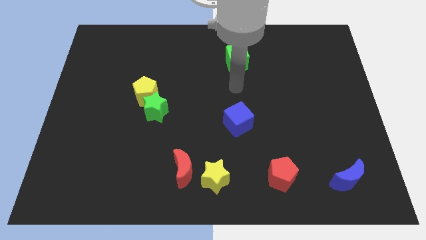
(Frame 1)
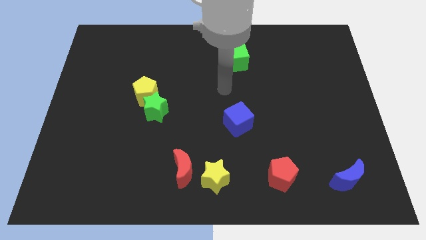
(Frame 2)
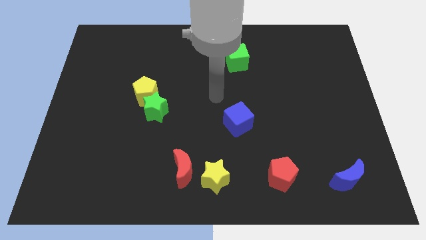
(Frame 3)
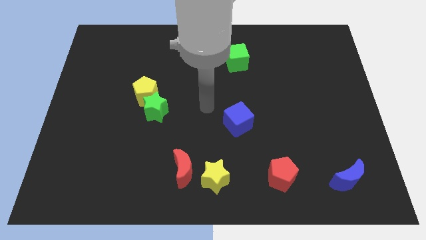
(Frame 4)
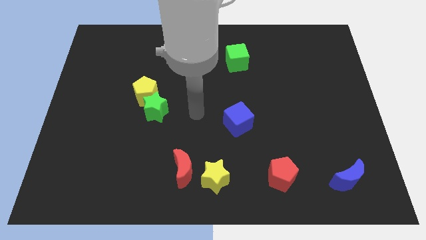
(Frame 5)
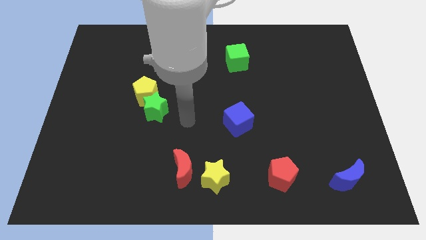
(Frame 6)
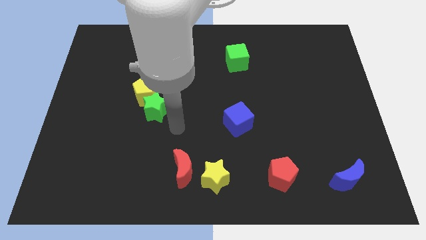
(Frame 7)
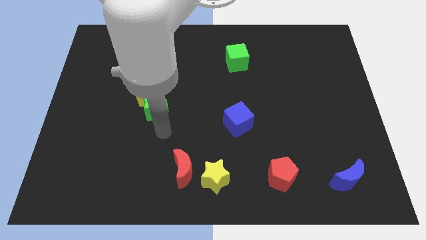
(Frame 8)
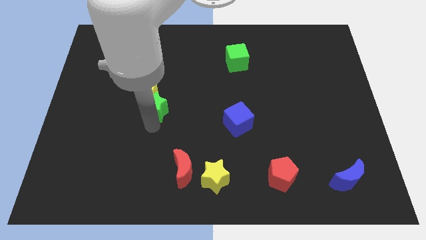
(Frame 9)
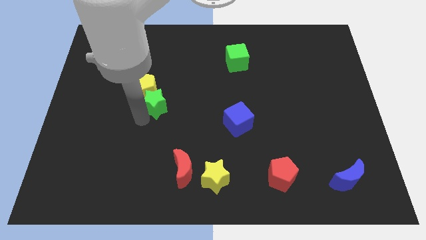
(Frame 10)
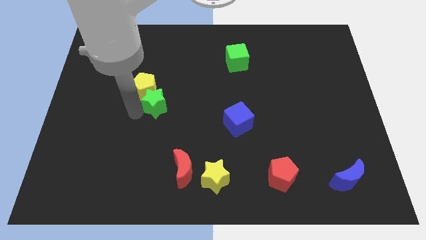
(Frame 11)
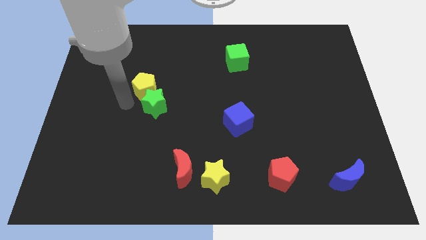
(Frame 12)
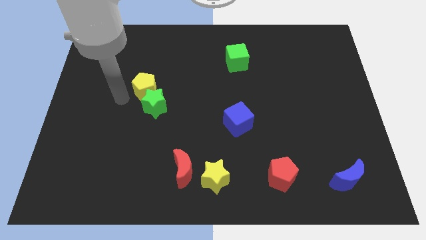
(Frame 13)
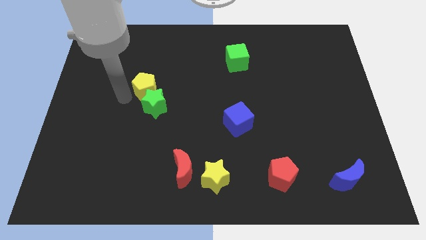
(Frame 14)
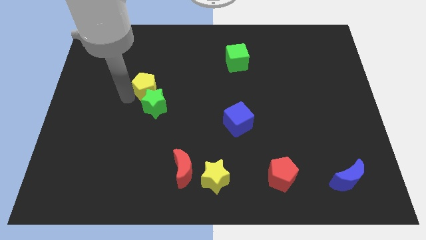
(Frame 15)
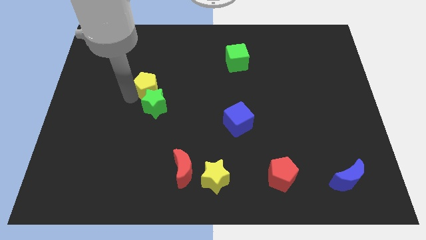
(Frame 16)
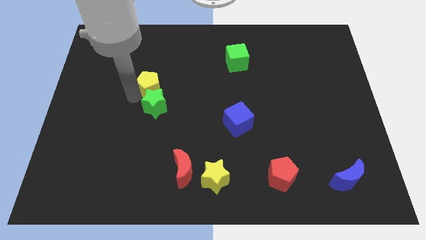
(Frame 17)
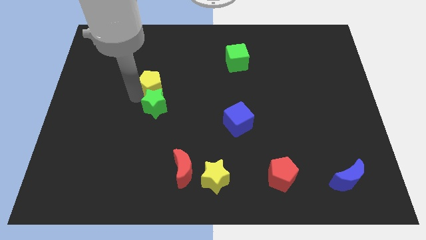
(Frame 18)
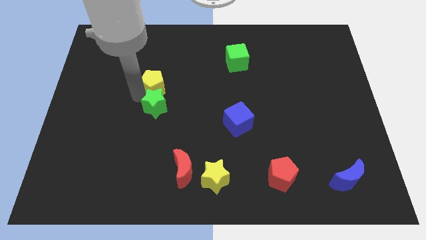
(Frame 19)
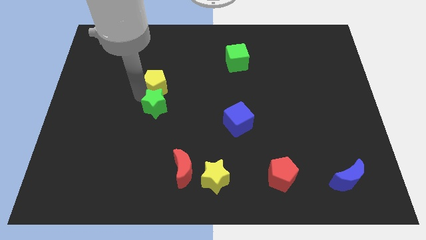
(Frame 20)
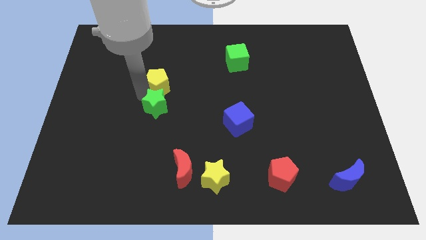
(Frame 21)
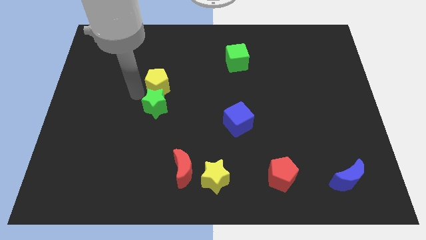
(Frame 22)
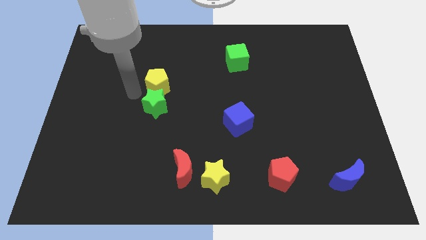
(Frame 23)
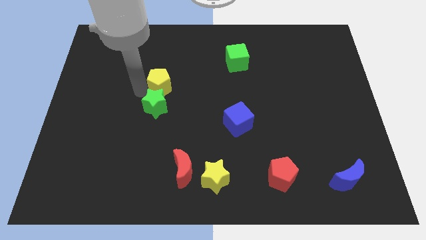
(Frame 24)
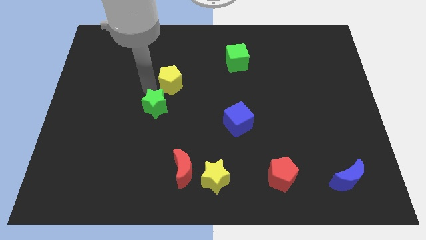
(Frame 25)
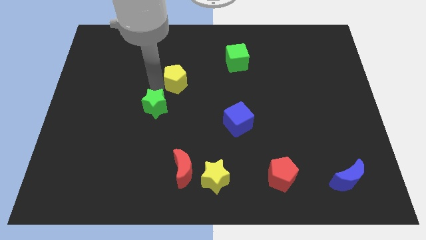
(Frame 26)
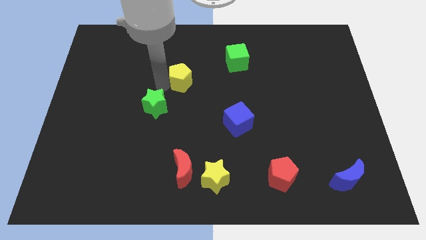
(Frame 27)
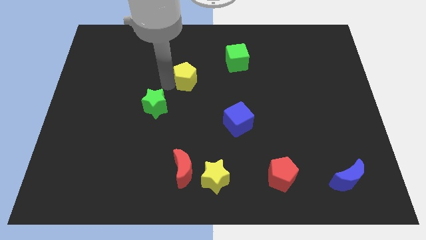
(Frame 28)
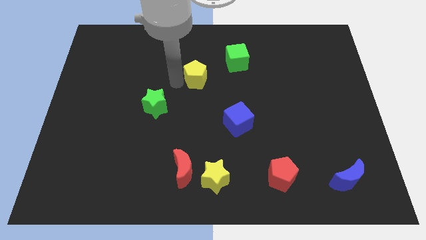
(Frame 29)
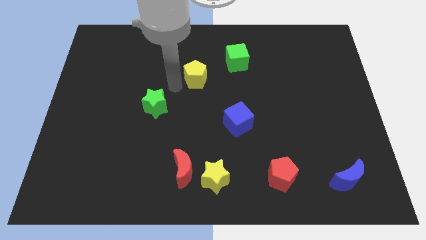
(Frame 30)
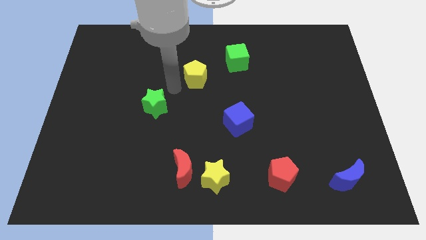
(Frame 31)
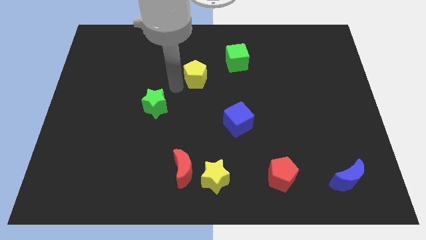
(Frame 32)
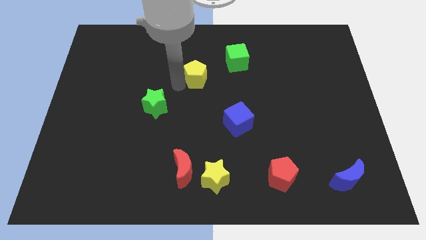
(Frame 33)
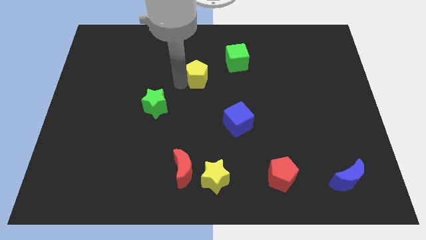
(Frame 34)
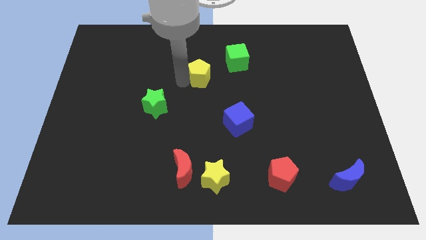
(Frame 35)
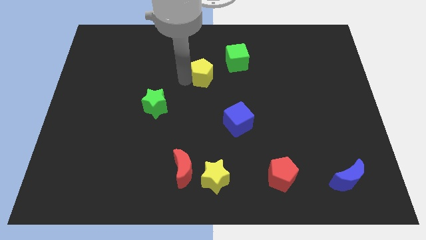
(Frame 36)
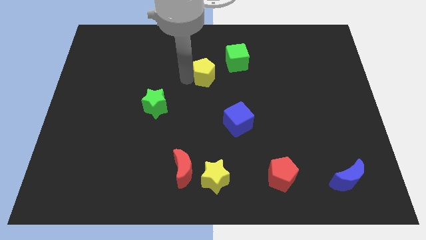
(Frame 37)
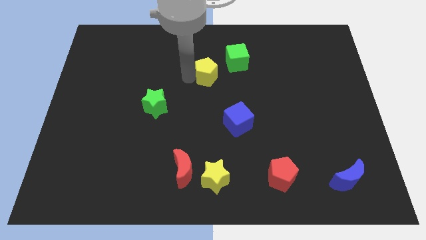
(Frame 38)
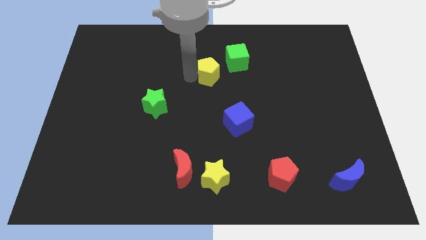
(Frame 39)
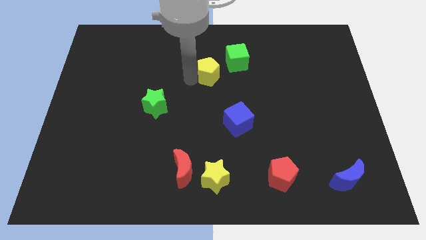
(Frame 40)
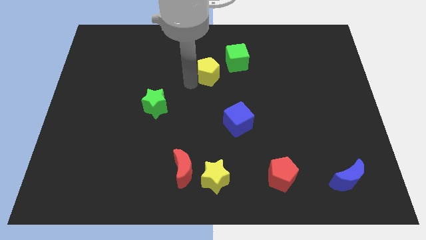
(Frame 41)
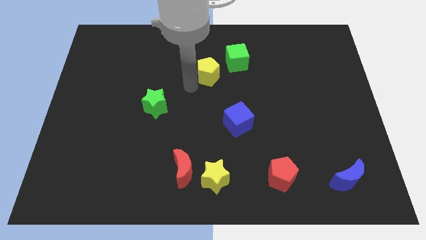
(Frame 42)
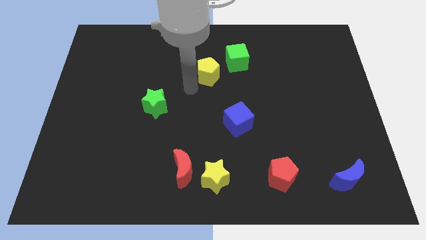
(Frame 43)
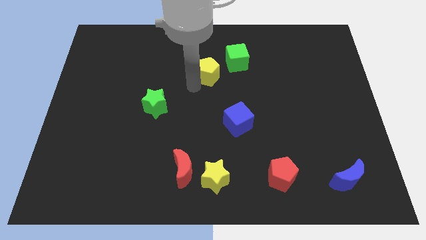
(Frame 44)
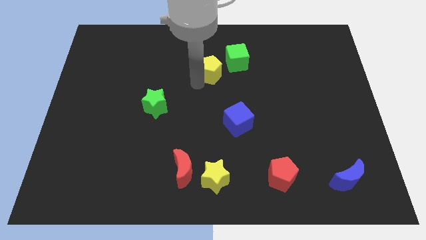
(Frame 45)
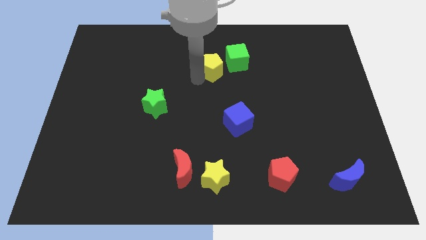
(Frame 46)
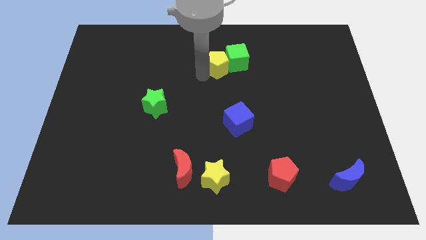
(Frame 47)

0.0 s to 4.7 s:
move the yellow pentagon next to the green cube

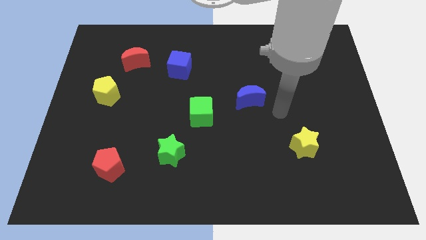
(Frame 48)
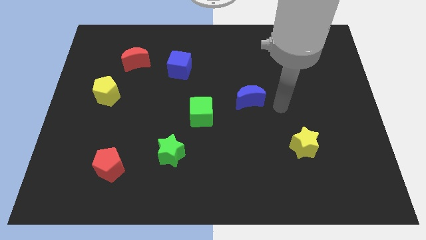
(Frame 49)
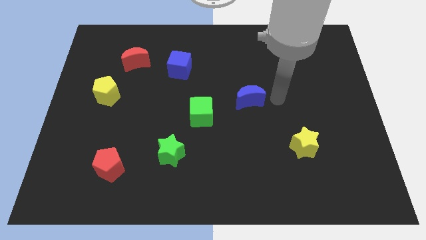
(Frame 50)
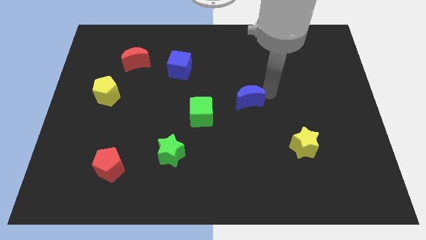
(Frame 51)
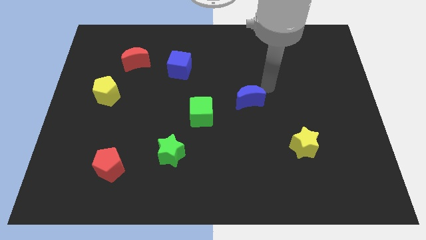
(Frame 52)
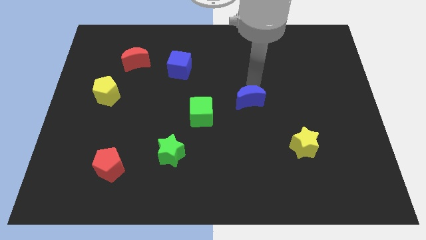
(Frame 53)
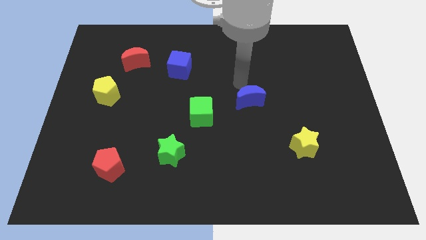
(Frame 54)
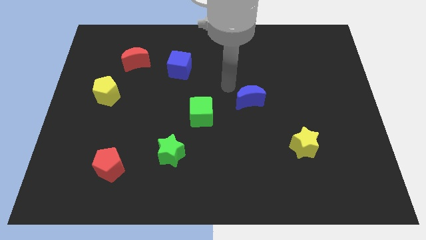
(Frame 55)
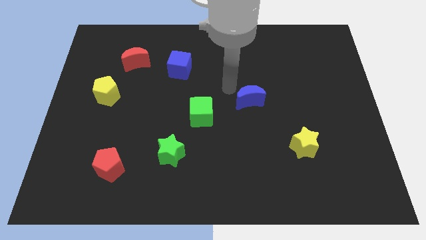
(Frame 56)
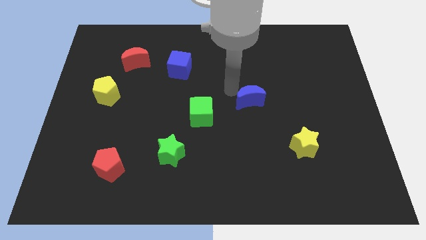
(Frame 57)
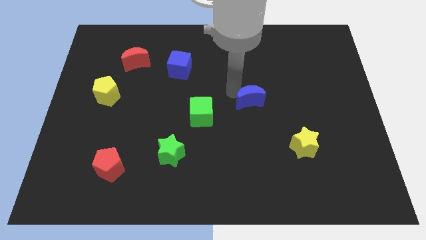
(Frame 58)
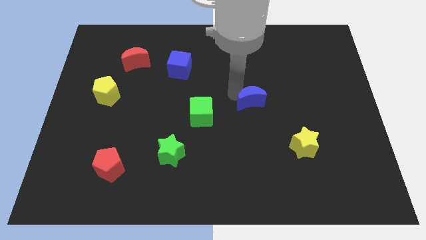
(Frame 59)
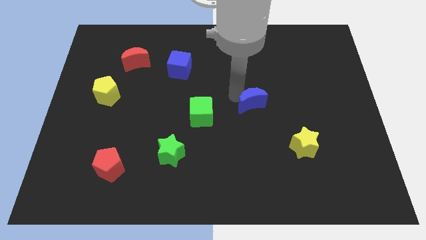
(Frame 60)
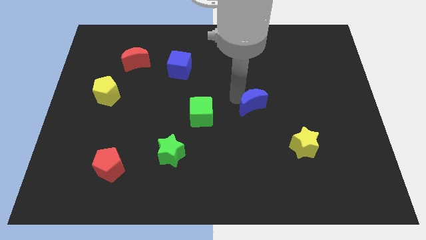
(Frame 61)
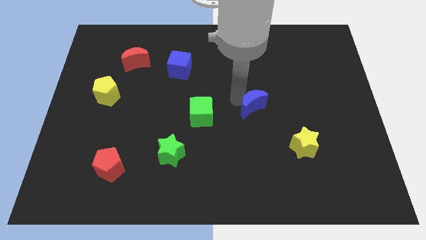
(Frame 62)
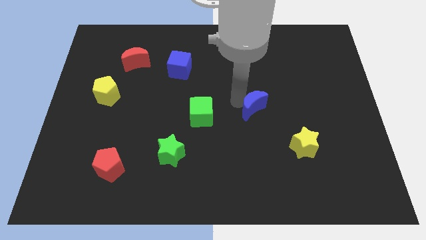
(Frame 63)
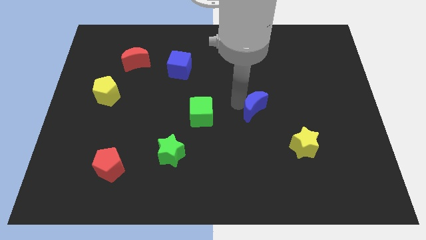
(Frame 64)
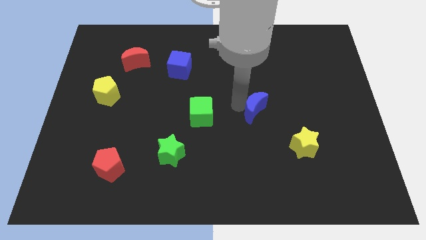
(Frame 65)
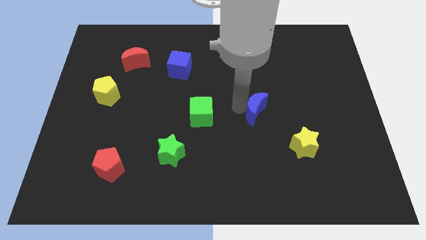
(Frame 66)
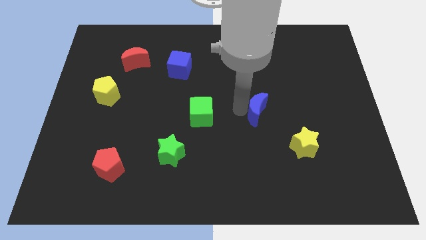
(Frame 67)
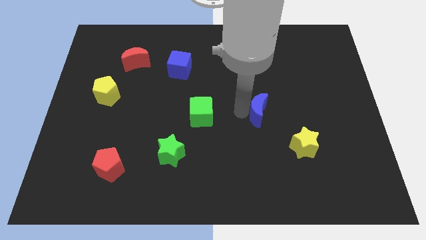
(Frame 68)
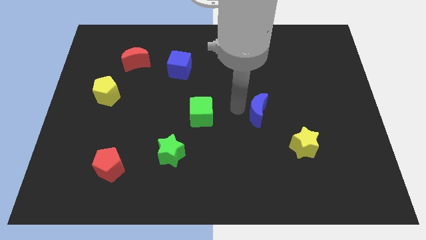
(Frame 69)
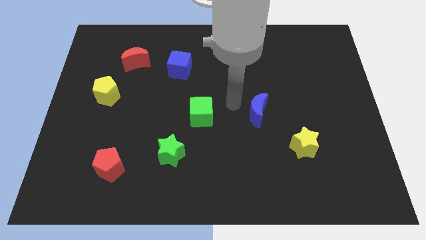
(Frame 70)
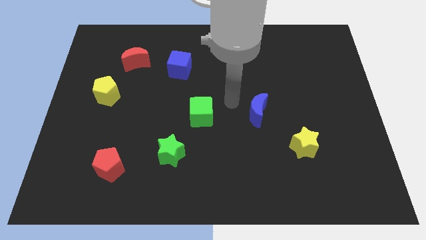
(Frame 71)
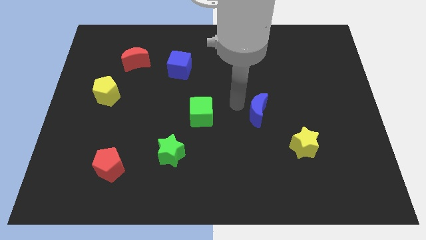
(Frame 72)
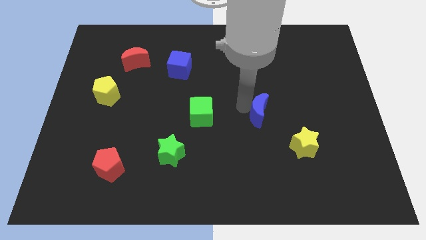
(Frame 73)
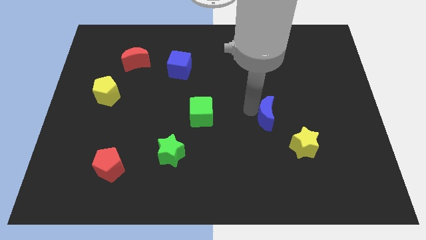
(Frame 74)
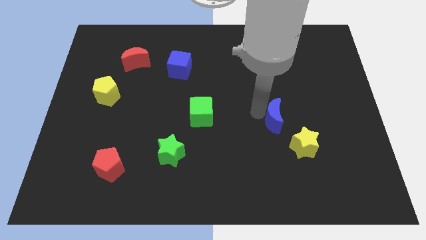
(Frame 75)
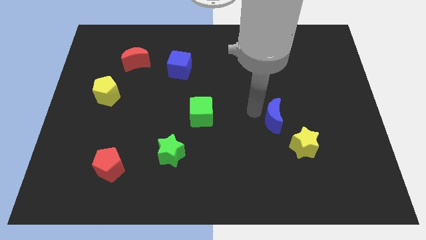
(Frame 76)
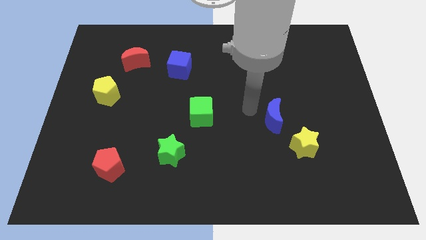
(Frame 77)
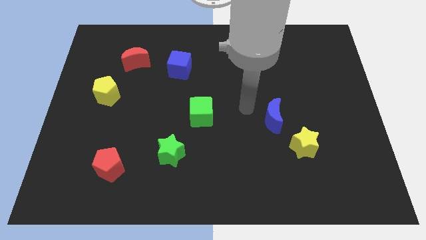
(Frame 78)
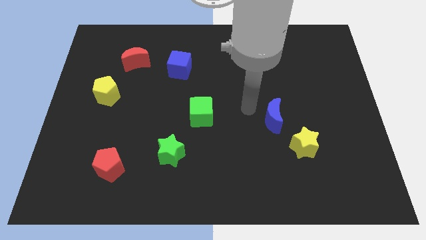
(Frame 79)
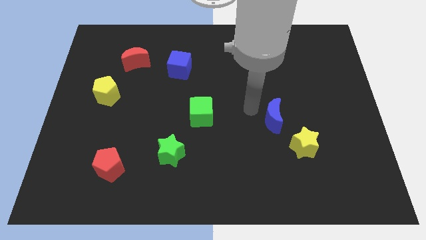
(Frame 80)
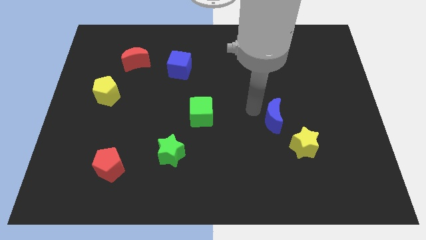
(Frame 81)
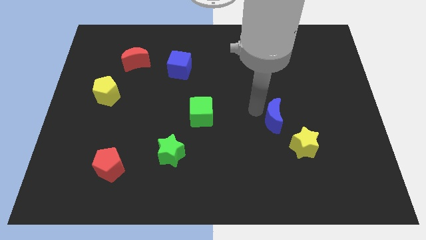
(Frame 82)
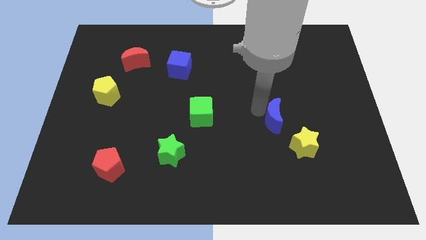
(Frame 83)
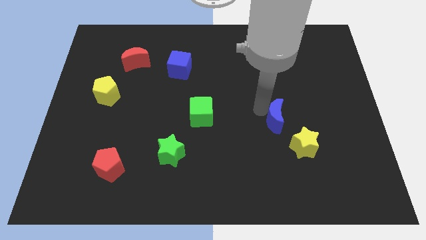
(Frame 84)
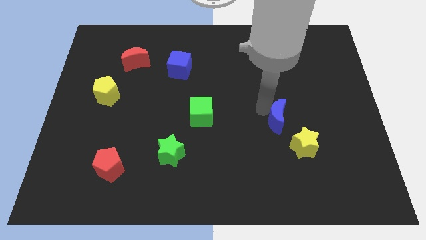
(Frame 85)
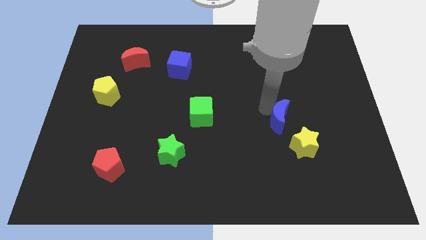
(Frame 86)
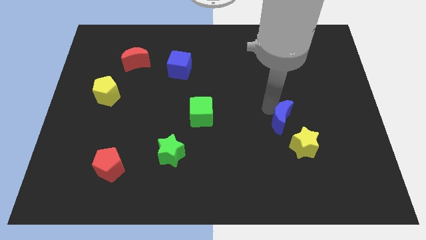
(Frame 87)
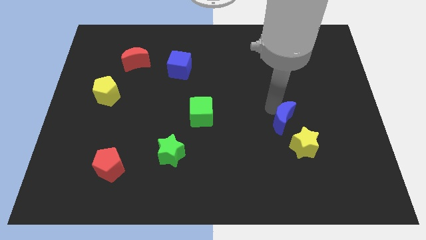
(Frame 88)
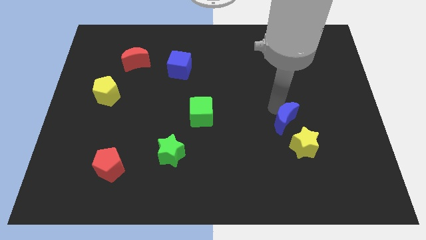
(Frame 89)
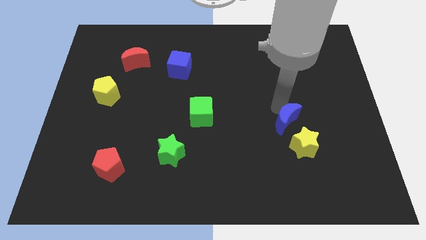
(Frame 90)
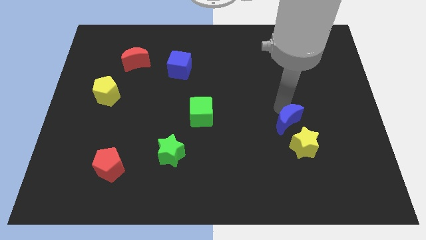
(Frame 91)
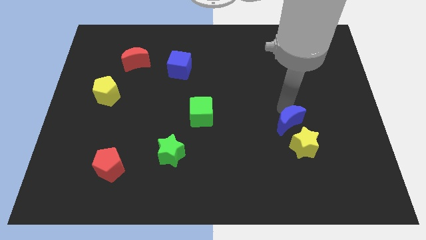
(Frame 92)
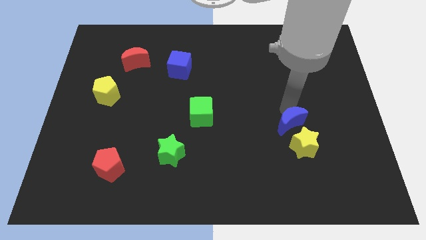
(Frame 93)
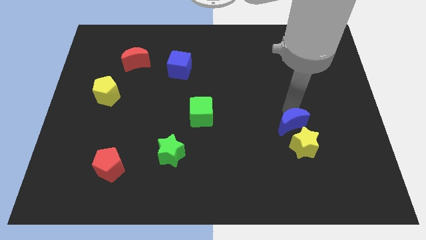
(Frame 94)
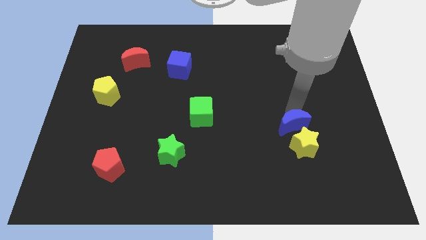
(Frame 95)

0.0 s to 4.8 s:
push the blue moon close to the yellow star
